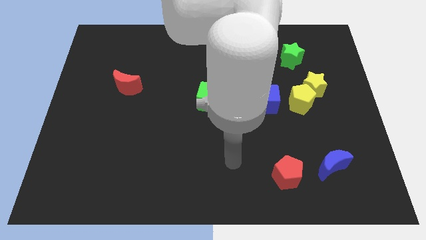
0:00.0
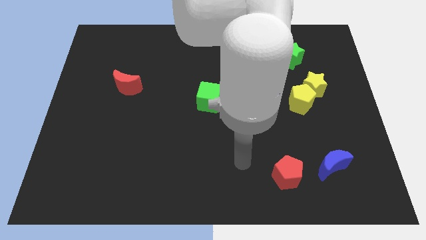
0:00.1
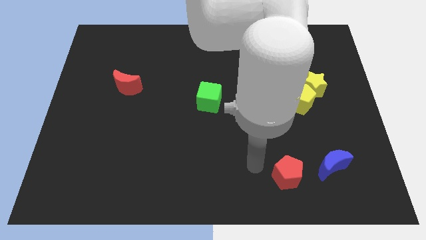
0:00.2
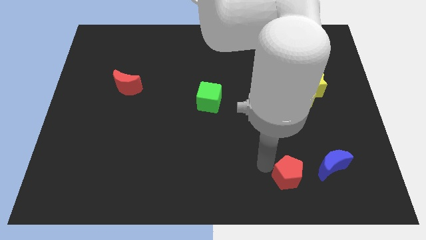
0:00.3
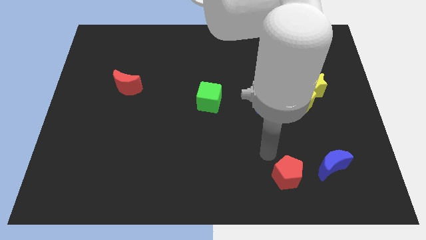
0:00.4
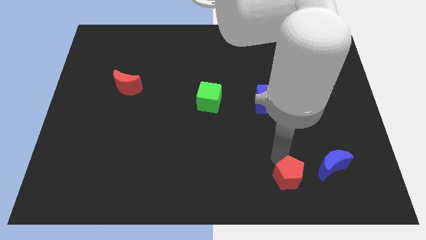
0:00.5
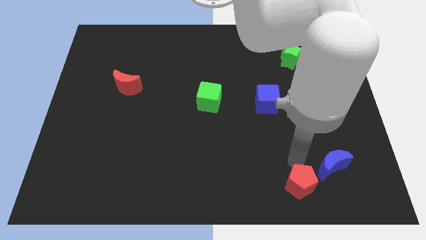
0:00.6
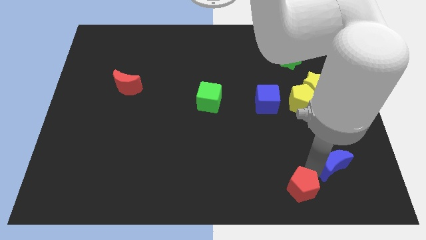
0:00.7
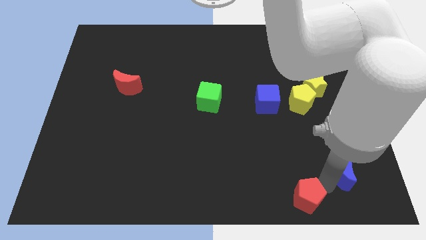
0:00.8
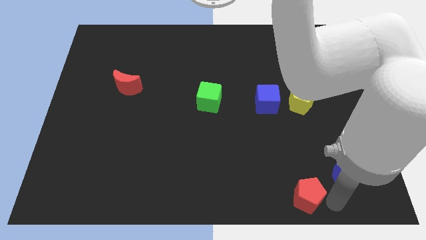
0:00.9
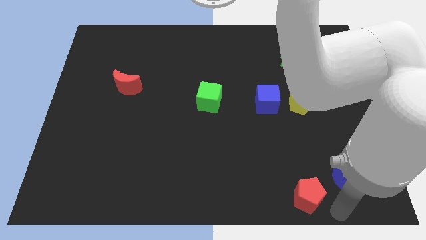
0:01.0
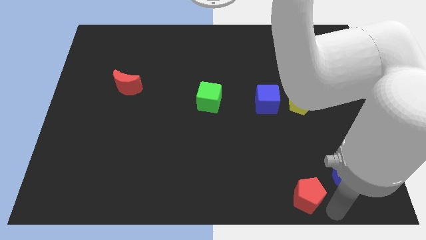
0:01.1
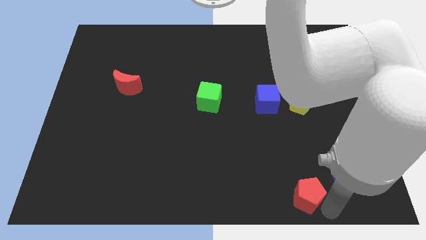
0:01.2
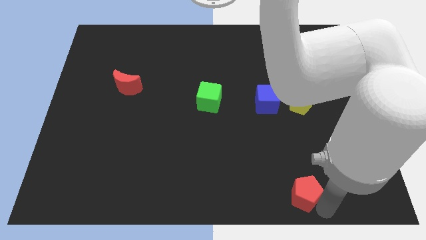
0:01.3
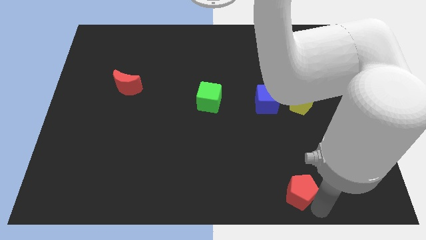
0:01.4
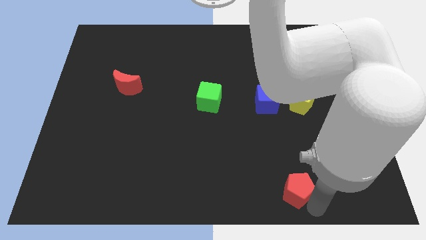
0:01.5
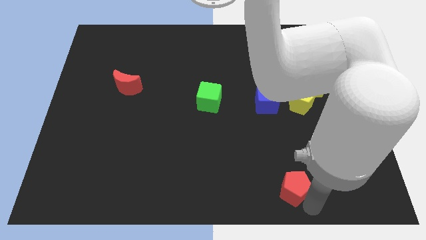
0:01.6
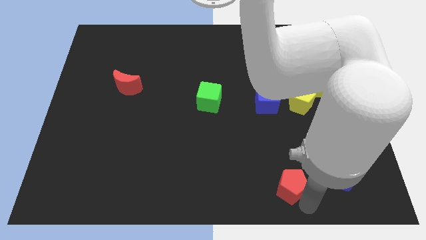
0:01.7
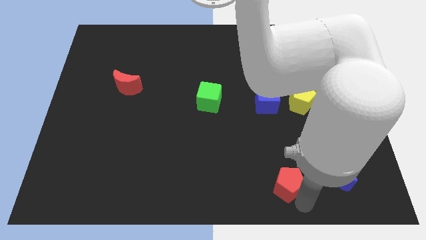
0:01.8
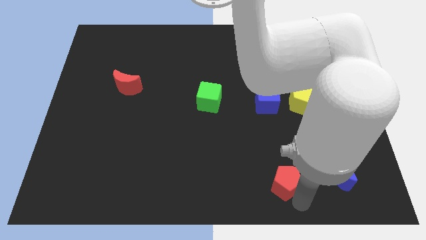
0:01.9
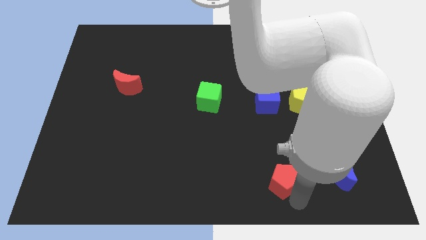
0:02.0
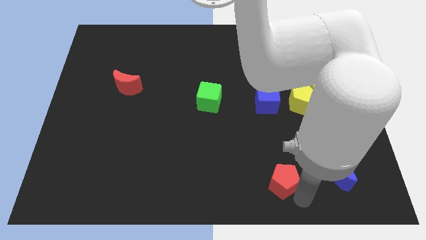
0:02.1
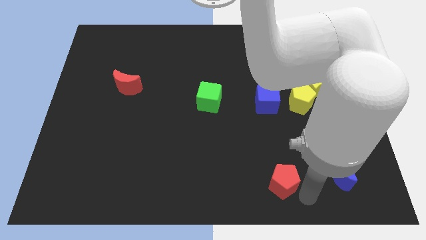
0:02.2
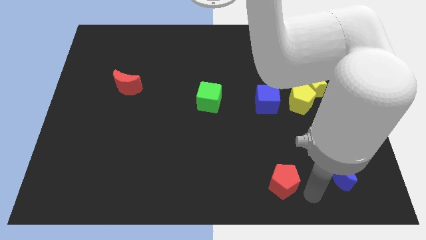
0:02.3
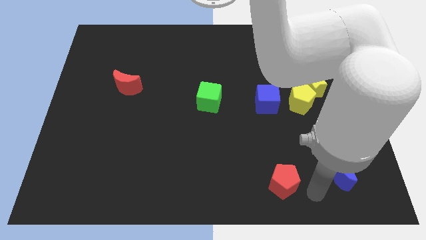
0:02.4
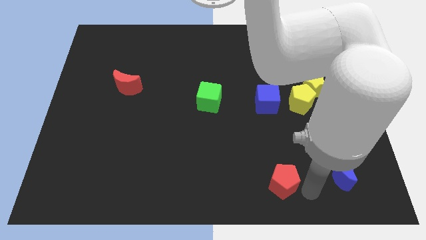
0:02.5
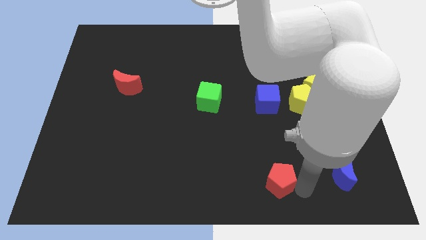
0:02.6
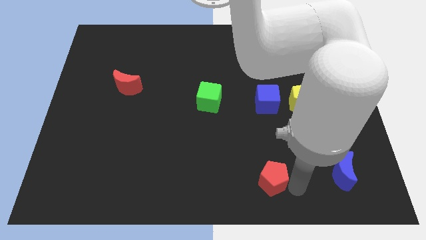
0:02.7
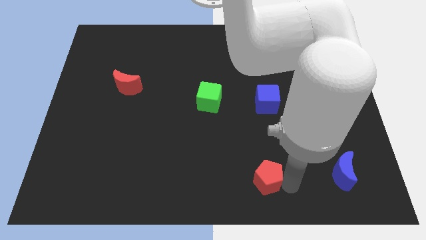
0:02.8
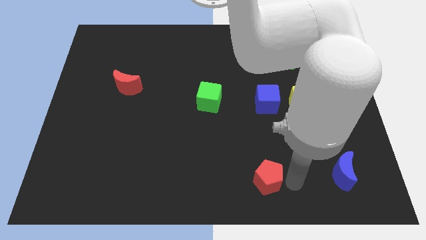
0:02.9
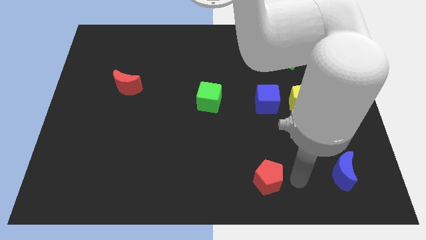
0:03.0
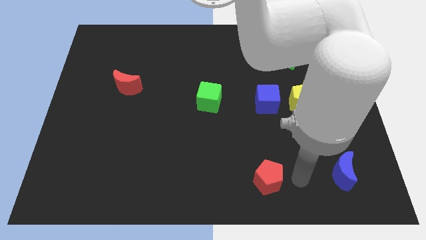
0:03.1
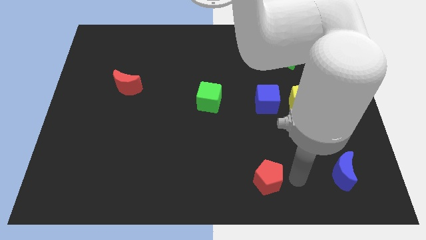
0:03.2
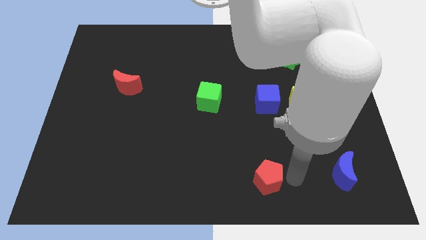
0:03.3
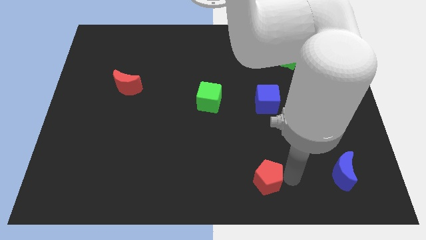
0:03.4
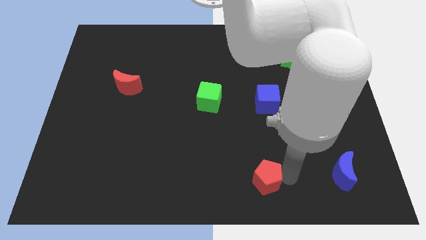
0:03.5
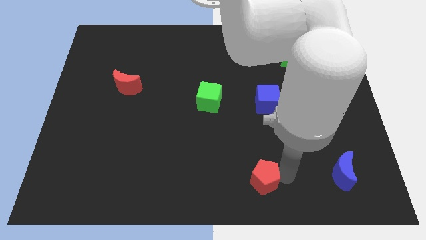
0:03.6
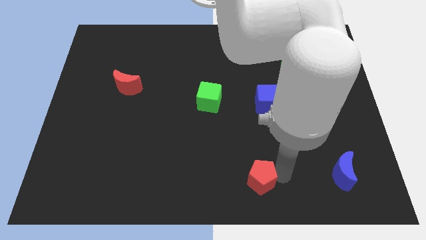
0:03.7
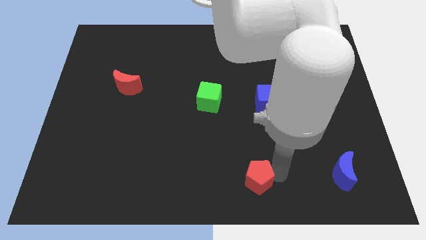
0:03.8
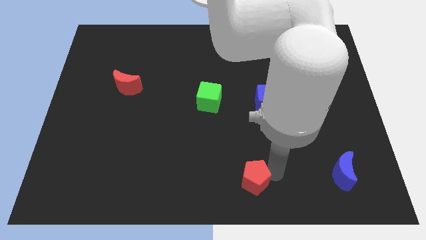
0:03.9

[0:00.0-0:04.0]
move the red pentagon slightly to the left

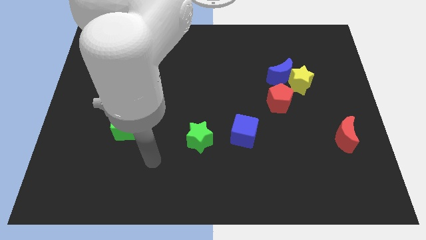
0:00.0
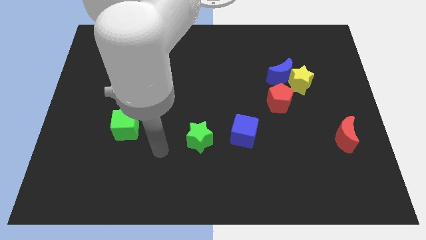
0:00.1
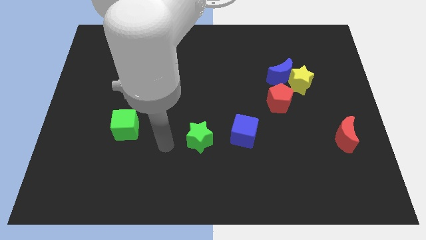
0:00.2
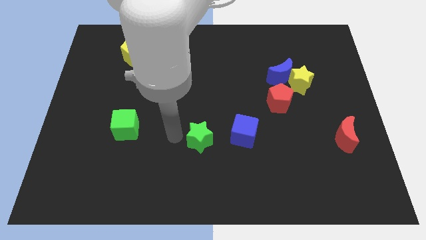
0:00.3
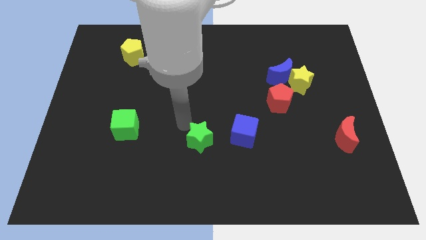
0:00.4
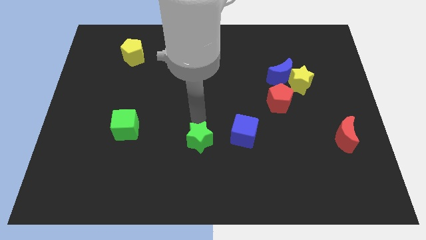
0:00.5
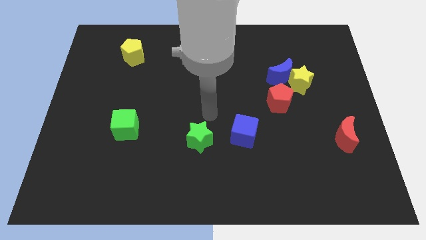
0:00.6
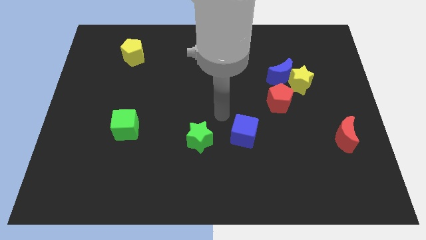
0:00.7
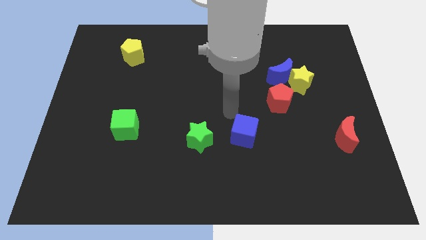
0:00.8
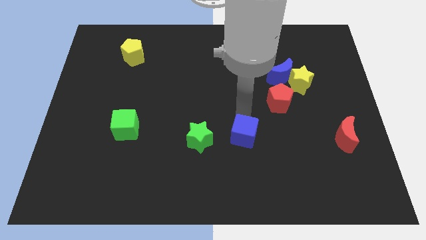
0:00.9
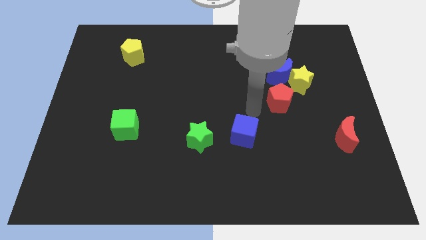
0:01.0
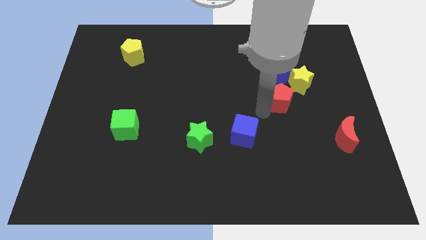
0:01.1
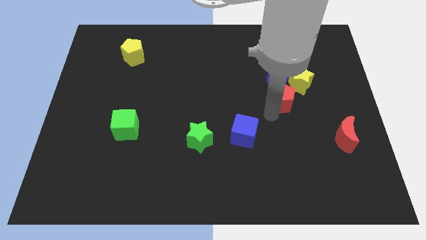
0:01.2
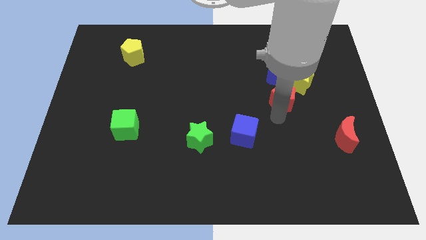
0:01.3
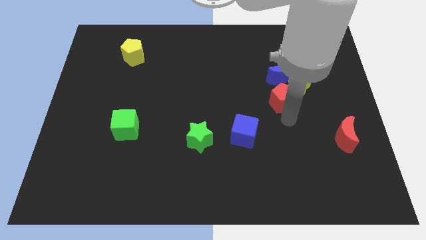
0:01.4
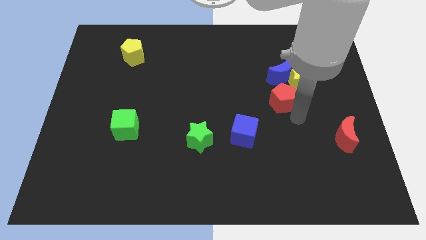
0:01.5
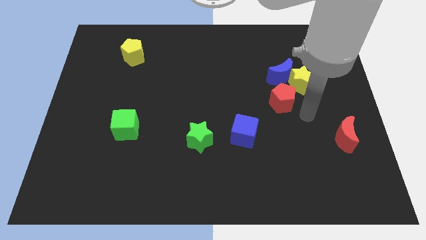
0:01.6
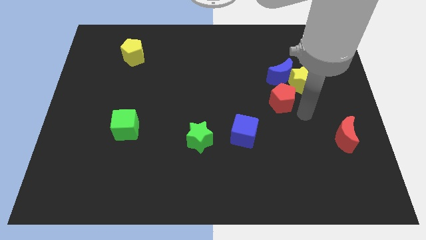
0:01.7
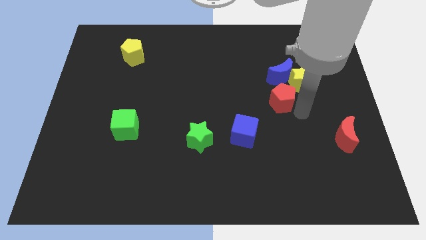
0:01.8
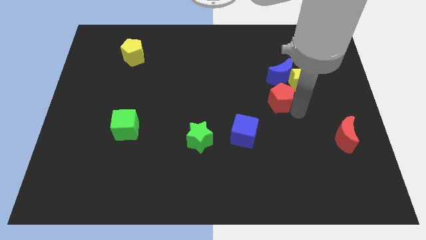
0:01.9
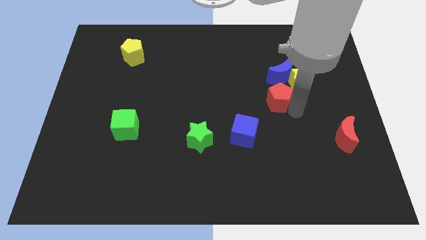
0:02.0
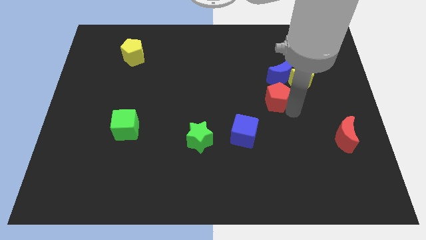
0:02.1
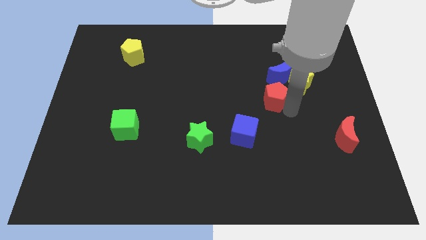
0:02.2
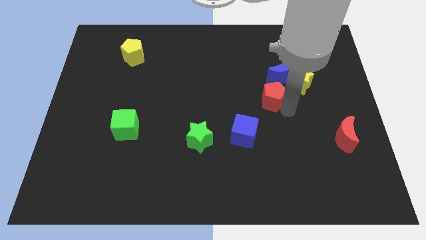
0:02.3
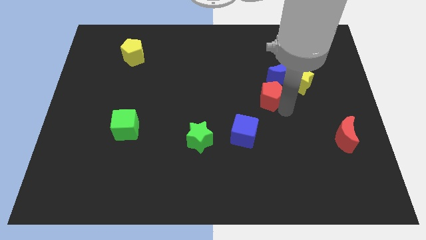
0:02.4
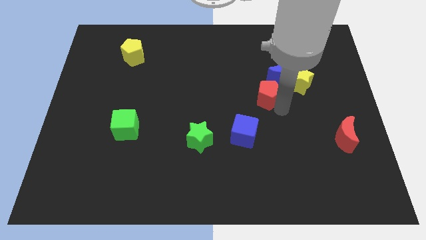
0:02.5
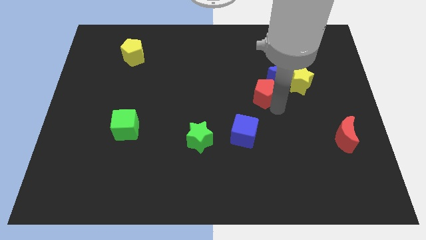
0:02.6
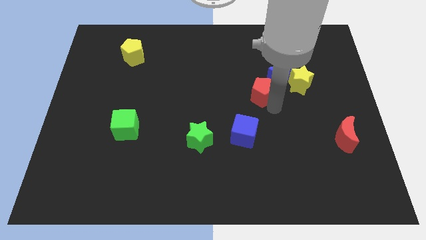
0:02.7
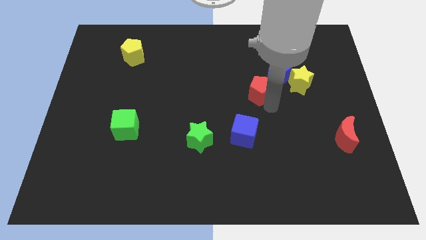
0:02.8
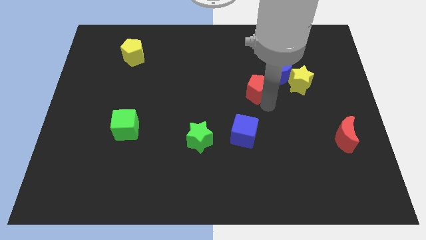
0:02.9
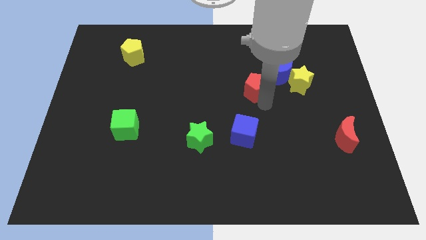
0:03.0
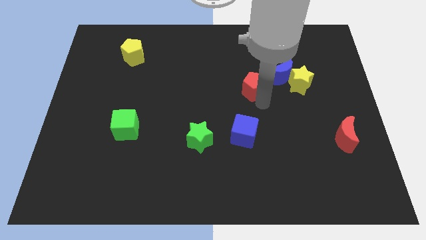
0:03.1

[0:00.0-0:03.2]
push the red pentagon upwards and then left slightly

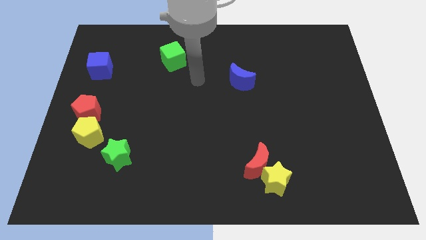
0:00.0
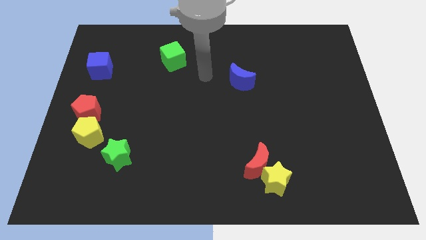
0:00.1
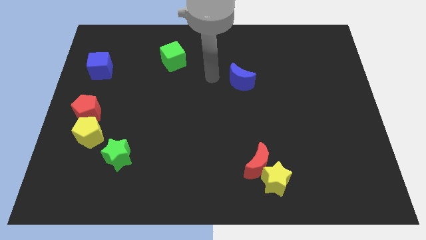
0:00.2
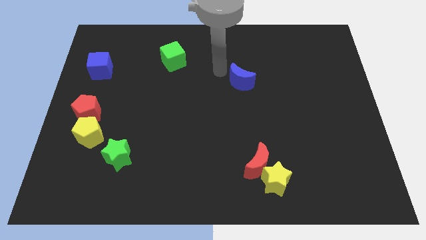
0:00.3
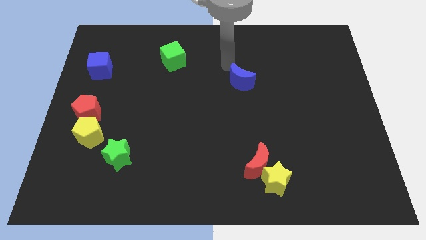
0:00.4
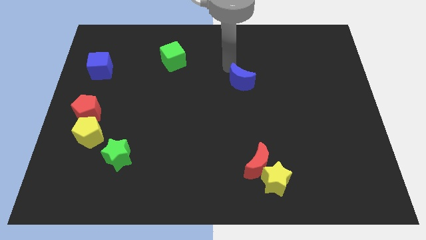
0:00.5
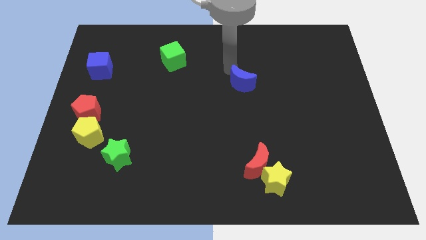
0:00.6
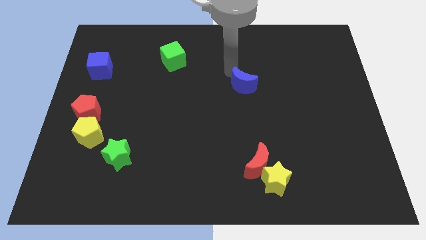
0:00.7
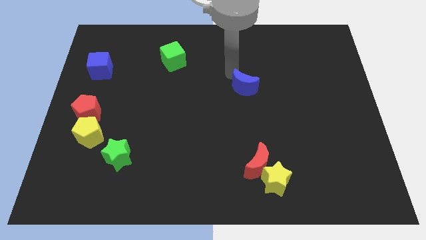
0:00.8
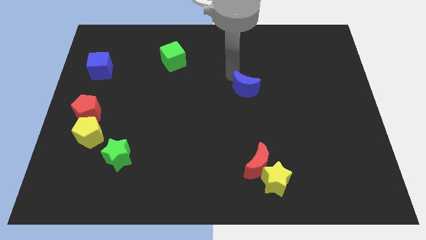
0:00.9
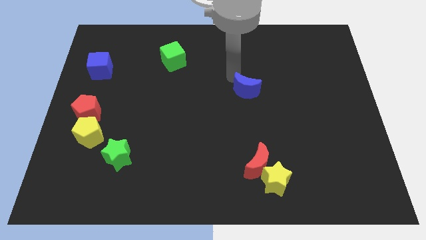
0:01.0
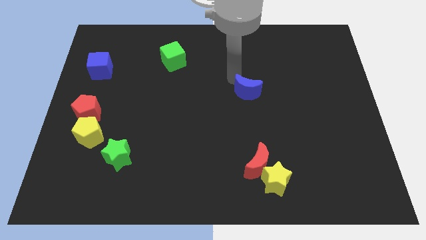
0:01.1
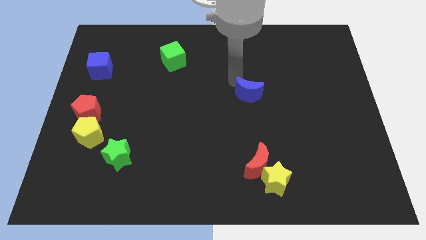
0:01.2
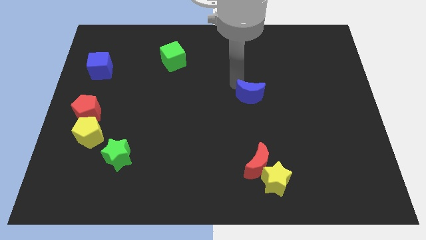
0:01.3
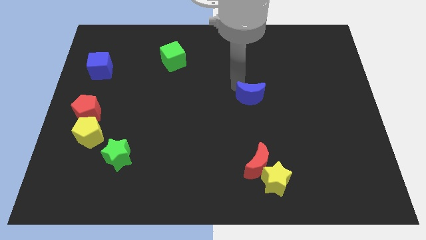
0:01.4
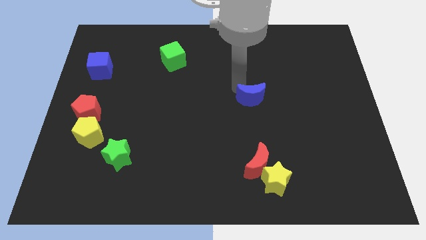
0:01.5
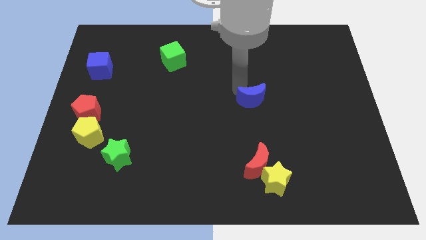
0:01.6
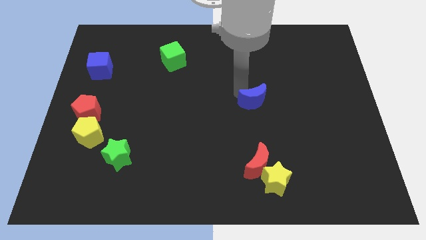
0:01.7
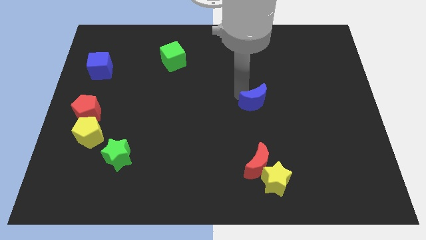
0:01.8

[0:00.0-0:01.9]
slightly slide the blue moon downwards and then to the right
